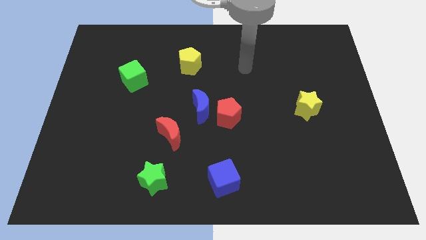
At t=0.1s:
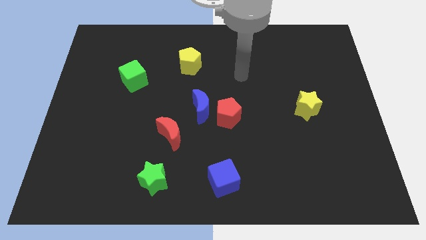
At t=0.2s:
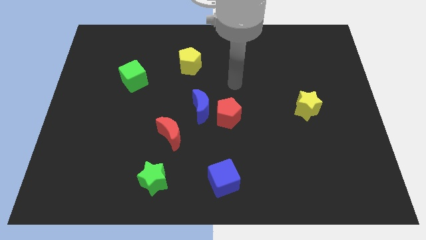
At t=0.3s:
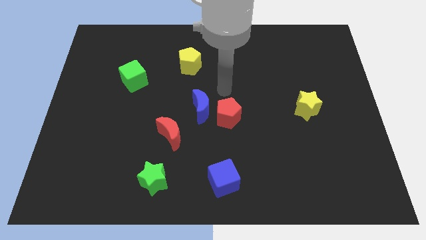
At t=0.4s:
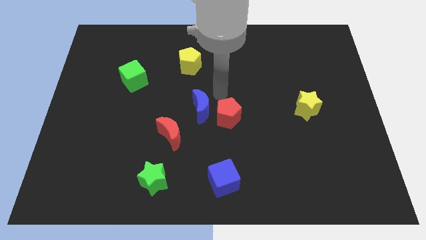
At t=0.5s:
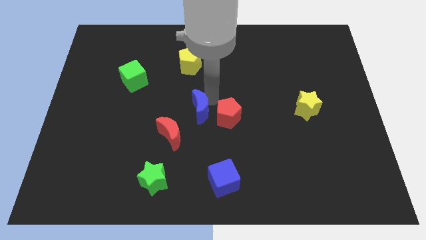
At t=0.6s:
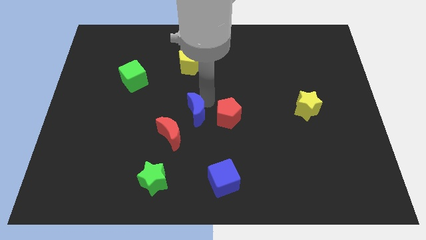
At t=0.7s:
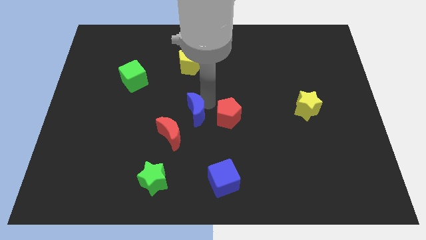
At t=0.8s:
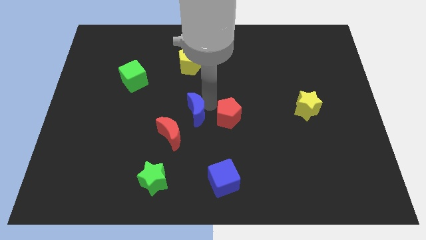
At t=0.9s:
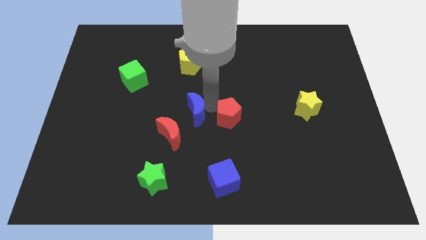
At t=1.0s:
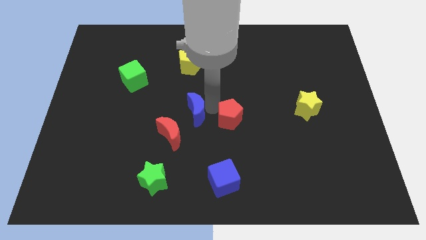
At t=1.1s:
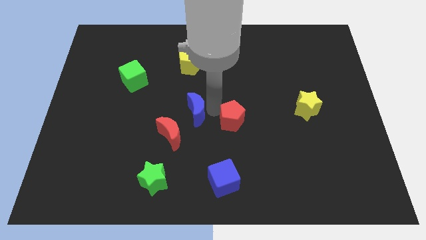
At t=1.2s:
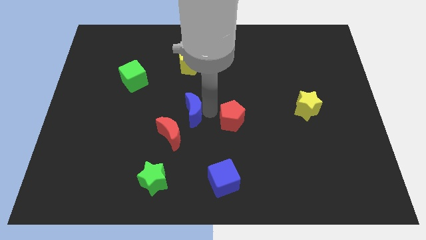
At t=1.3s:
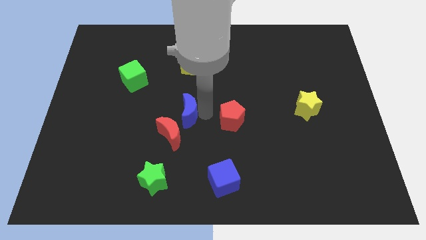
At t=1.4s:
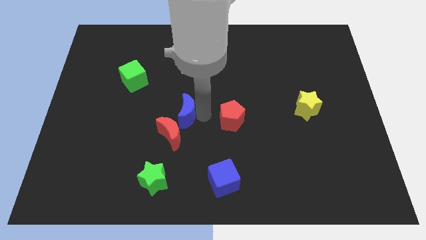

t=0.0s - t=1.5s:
pull the red pentagon apart from the blue moon

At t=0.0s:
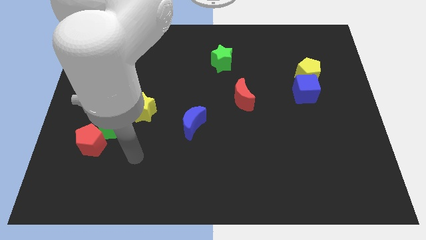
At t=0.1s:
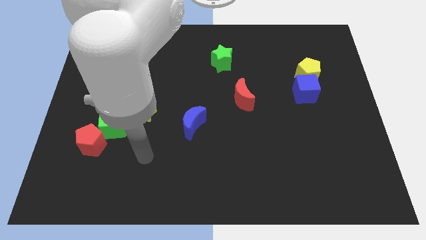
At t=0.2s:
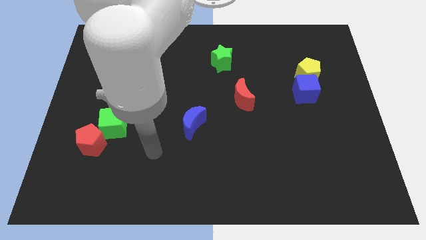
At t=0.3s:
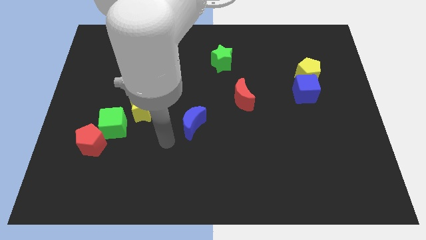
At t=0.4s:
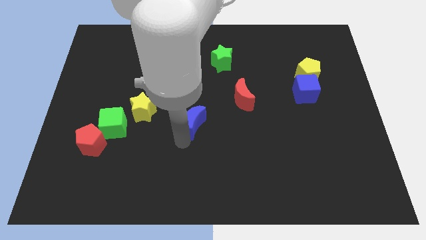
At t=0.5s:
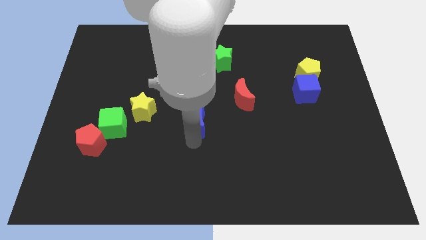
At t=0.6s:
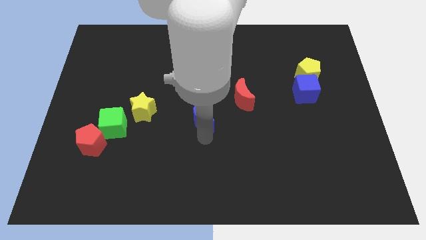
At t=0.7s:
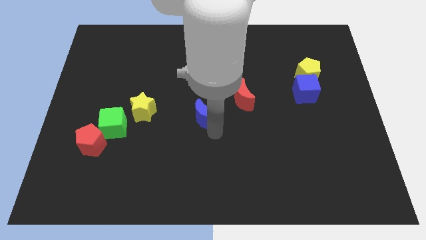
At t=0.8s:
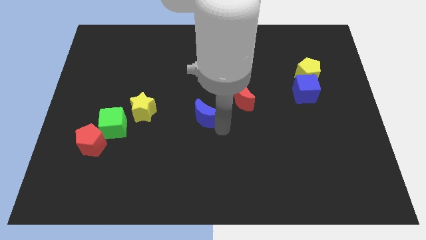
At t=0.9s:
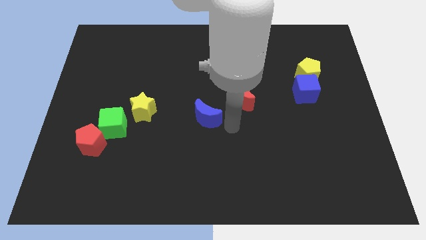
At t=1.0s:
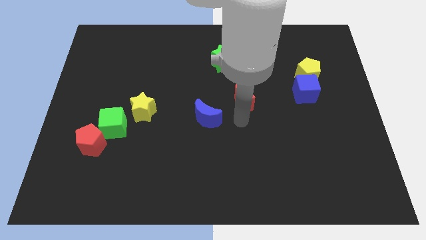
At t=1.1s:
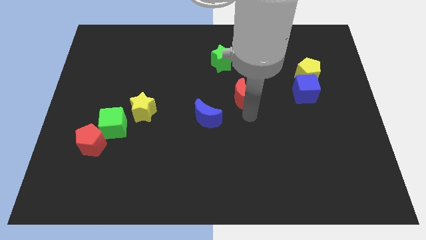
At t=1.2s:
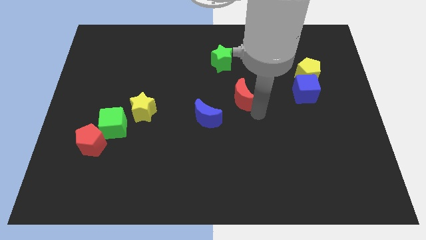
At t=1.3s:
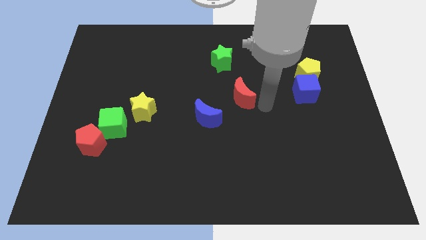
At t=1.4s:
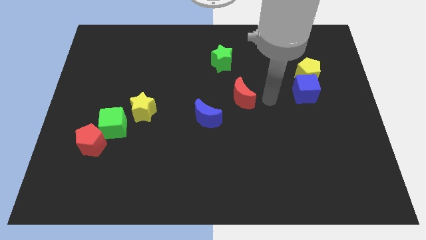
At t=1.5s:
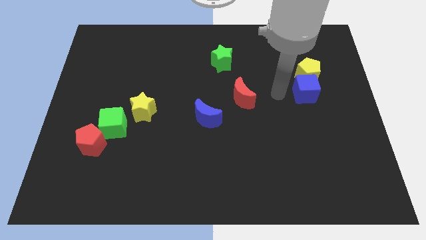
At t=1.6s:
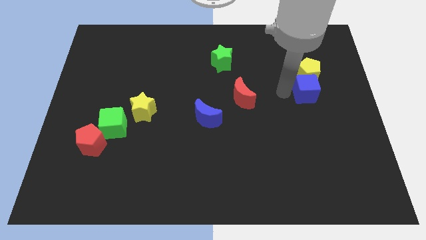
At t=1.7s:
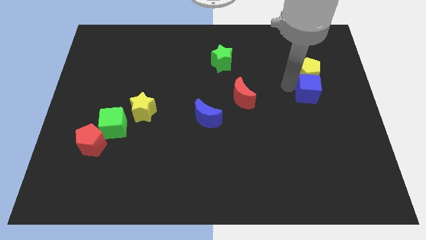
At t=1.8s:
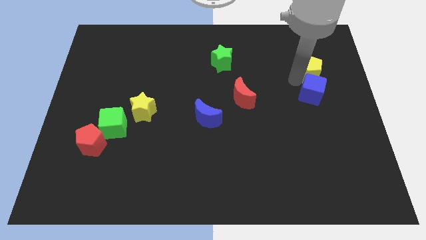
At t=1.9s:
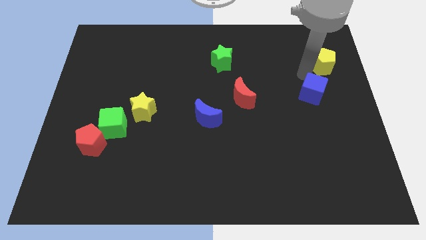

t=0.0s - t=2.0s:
move the blue cube away from the yellow pentagon

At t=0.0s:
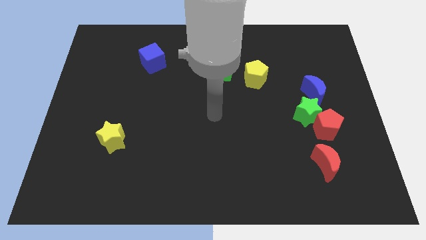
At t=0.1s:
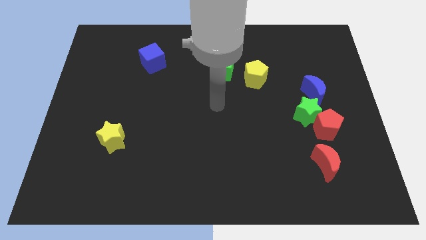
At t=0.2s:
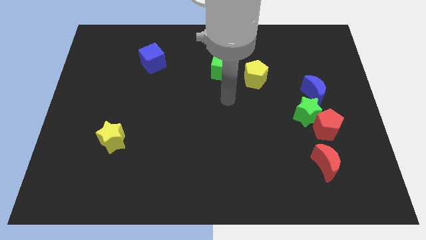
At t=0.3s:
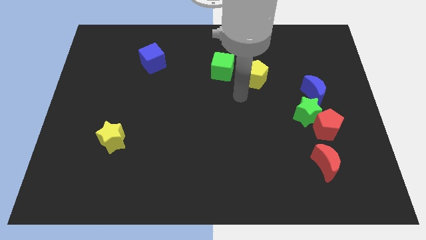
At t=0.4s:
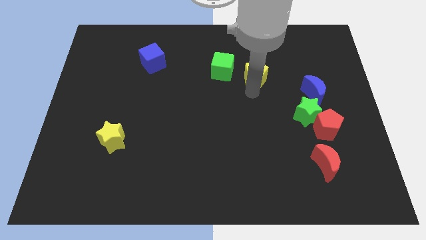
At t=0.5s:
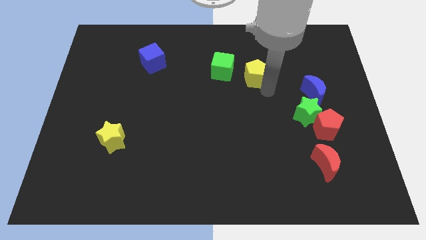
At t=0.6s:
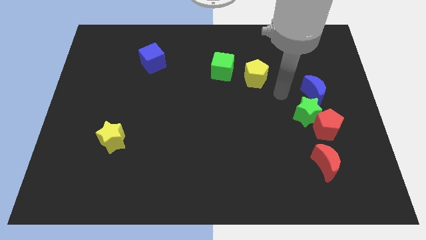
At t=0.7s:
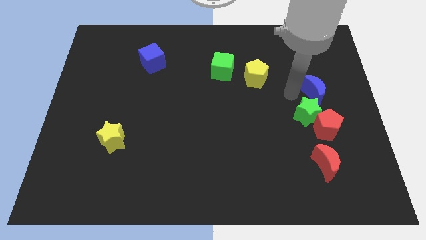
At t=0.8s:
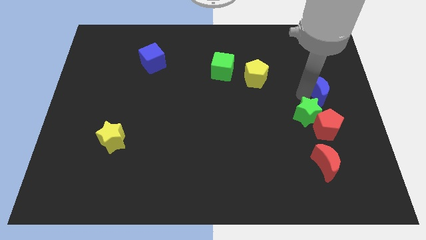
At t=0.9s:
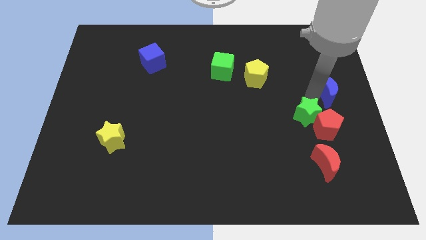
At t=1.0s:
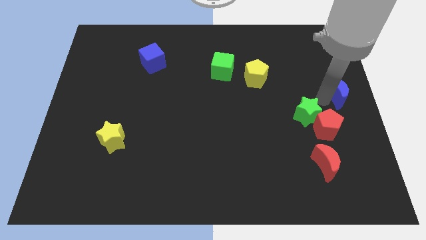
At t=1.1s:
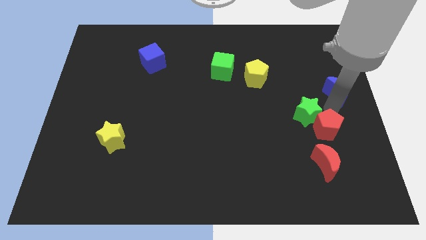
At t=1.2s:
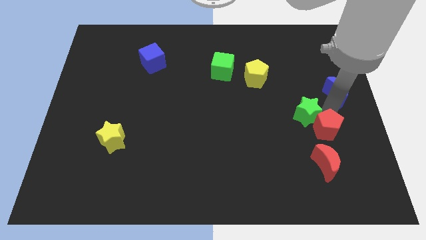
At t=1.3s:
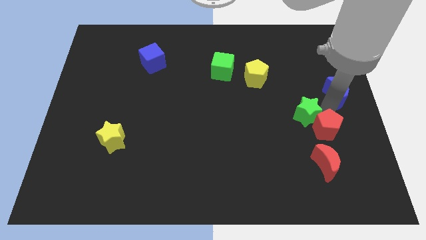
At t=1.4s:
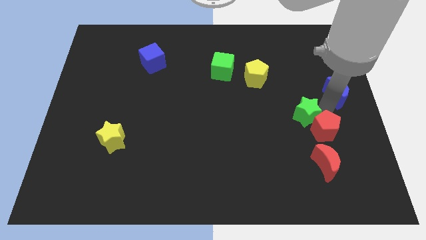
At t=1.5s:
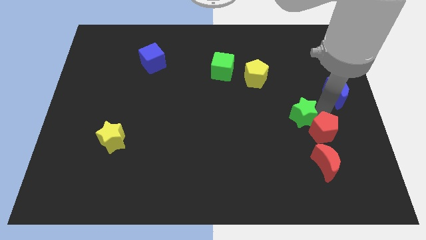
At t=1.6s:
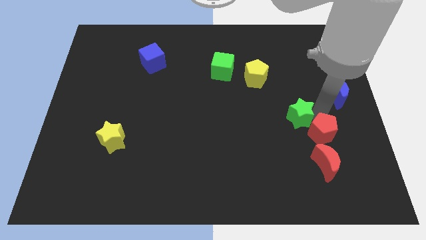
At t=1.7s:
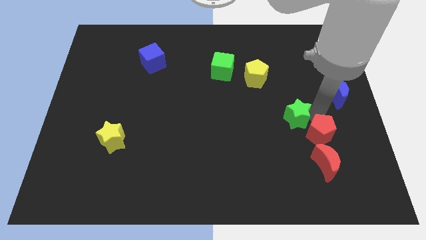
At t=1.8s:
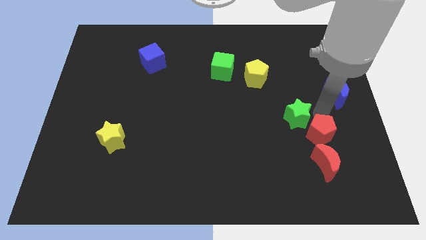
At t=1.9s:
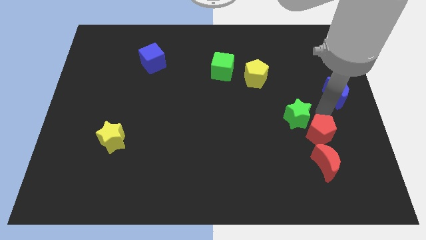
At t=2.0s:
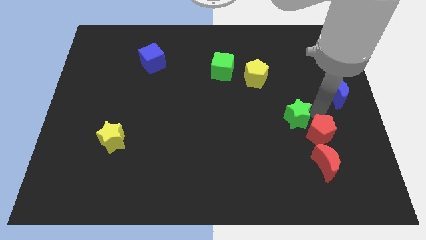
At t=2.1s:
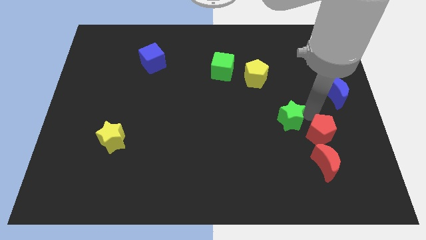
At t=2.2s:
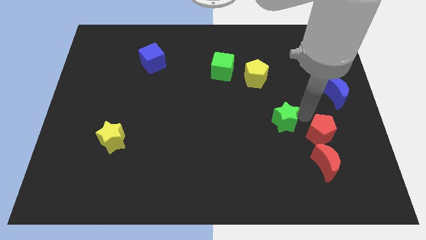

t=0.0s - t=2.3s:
move the green star away from the red pentagon and blue moon

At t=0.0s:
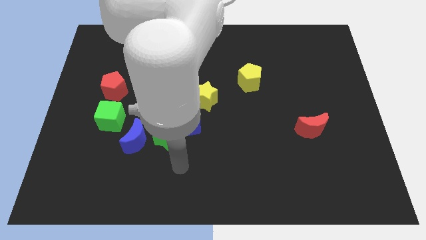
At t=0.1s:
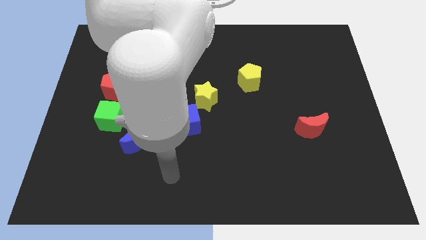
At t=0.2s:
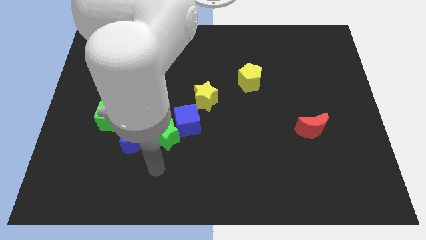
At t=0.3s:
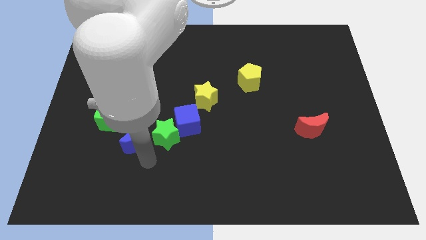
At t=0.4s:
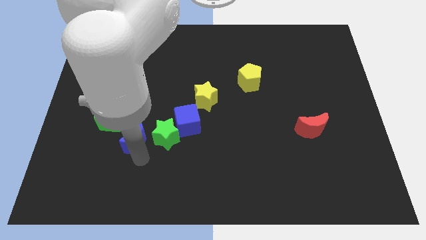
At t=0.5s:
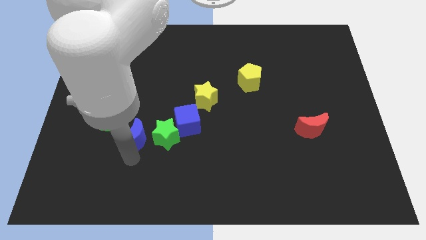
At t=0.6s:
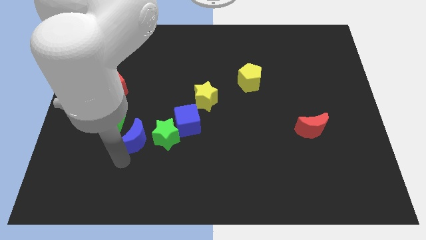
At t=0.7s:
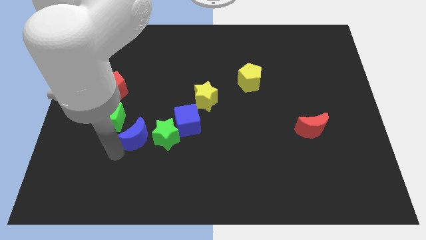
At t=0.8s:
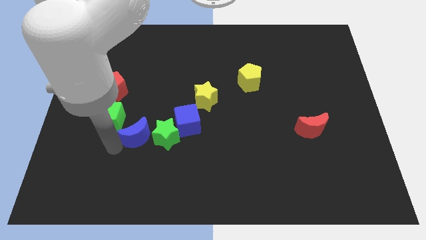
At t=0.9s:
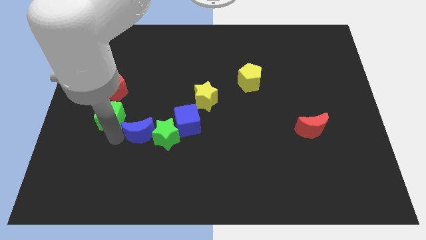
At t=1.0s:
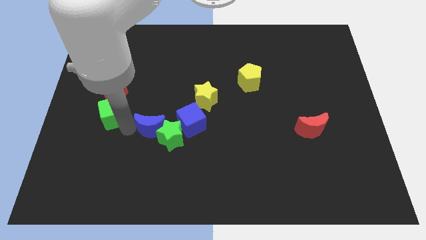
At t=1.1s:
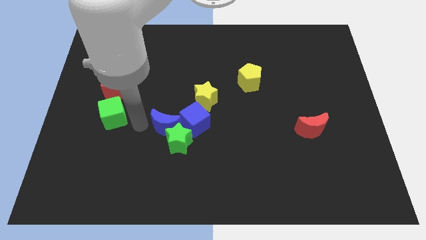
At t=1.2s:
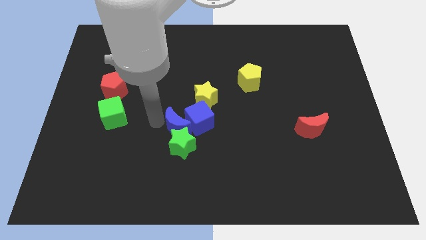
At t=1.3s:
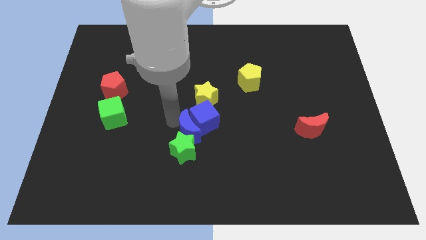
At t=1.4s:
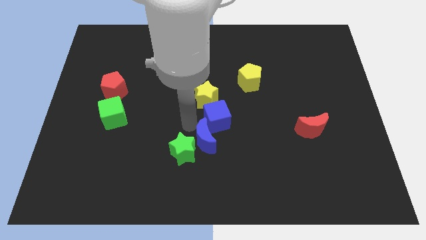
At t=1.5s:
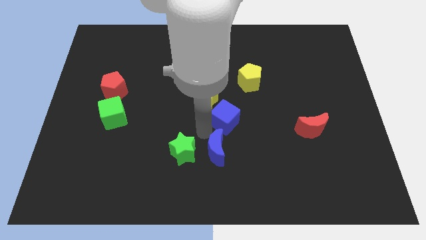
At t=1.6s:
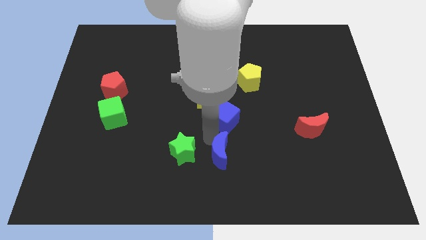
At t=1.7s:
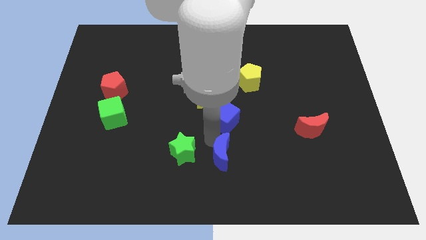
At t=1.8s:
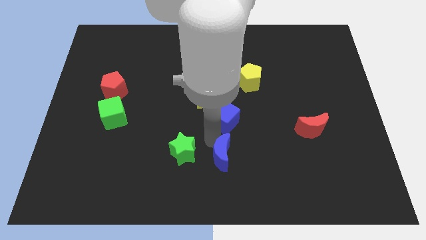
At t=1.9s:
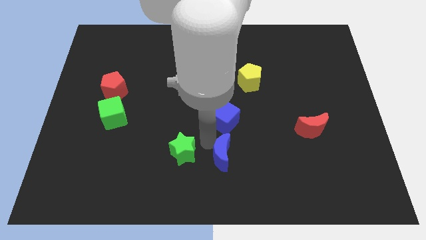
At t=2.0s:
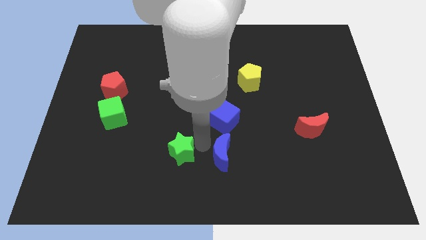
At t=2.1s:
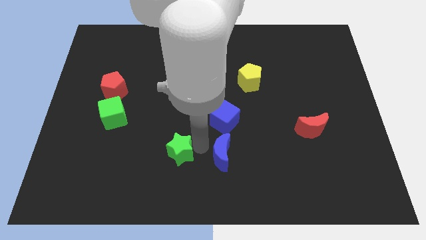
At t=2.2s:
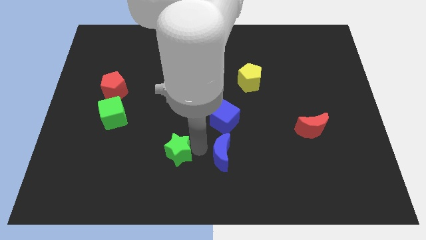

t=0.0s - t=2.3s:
pull the green star apart from the blue cube and blue moon

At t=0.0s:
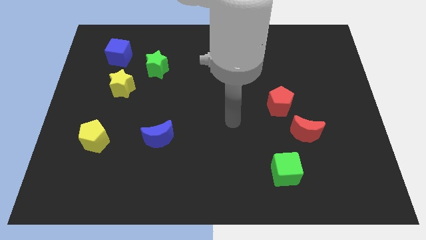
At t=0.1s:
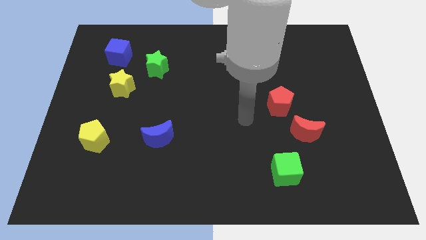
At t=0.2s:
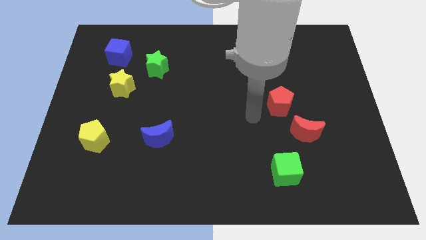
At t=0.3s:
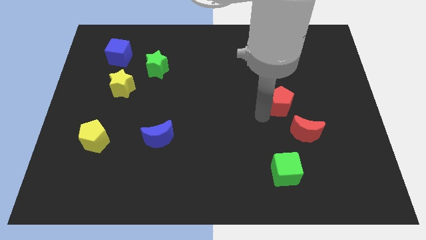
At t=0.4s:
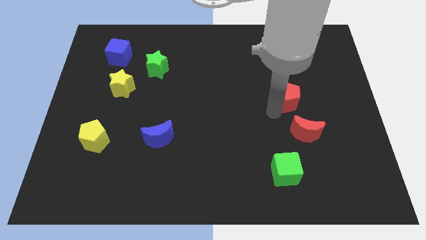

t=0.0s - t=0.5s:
pull the red moon apart from the red pentagon

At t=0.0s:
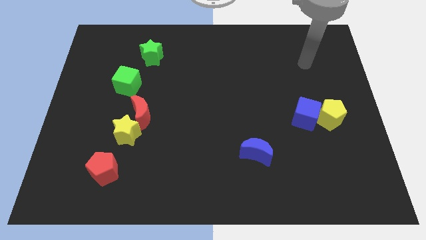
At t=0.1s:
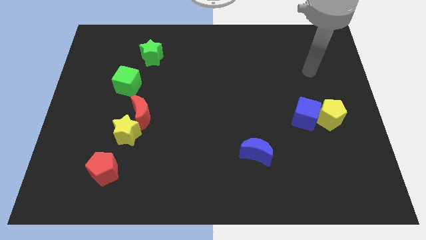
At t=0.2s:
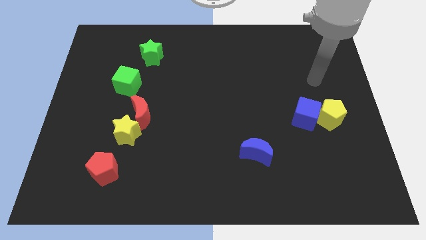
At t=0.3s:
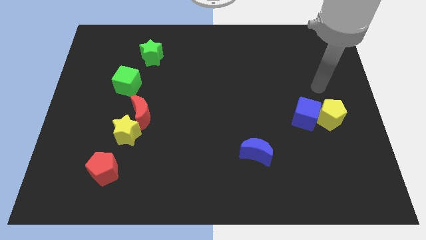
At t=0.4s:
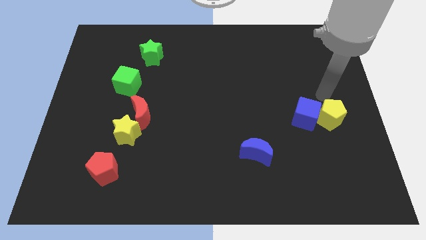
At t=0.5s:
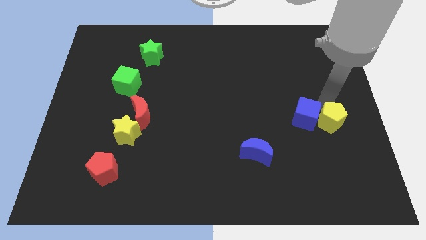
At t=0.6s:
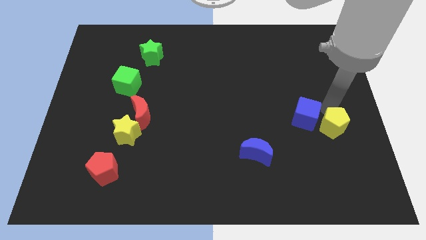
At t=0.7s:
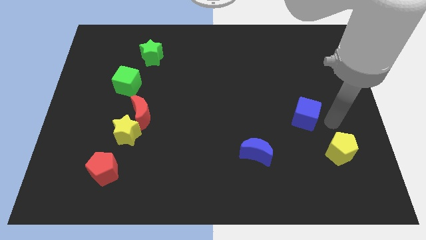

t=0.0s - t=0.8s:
pull the blue cube apart from the yellow pentagon
